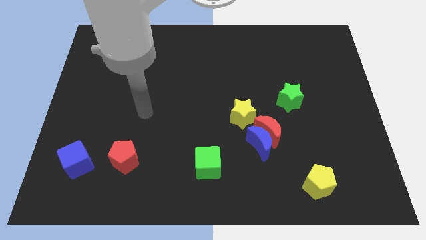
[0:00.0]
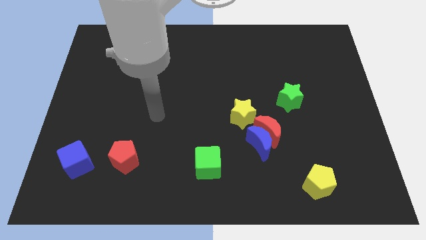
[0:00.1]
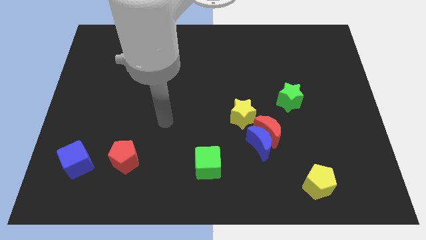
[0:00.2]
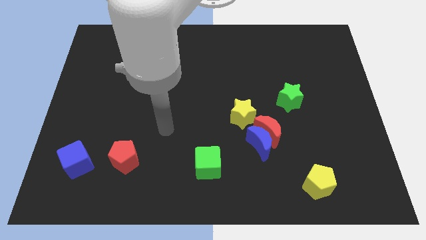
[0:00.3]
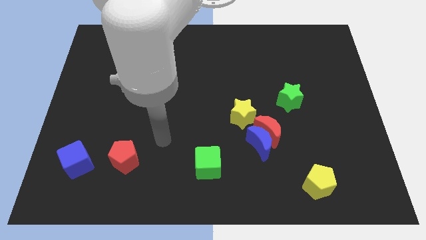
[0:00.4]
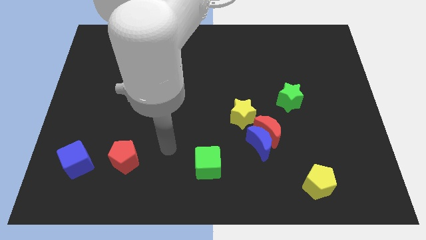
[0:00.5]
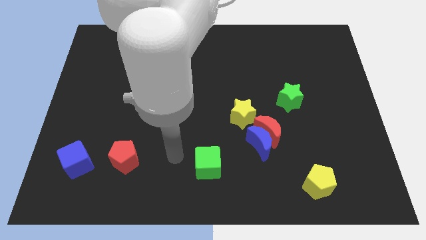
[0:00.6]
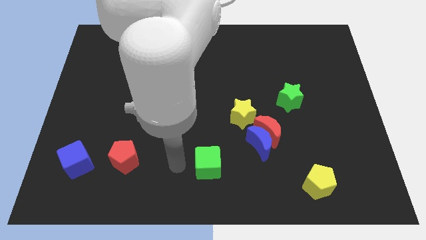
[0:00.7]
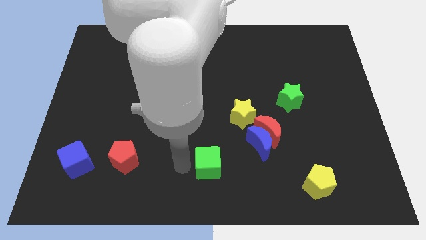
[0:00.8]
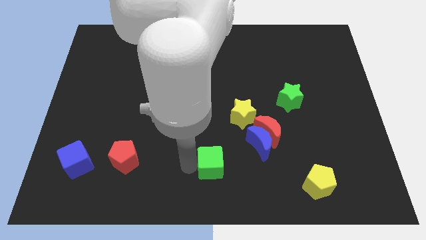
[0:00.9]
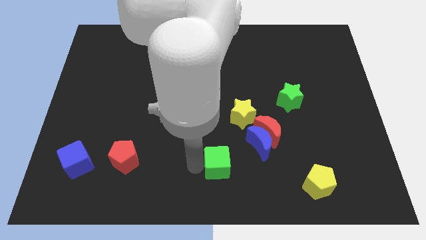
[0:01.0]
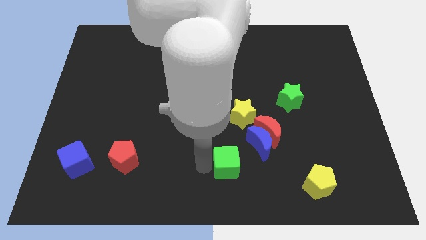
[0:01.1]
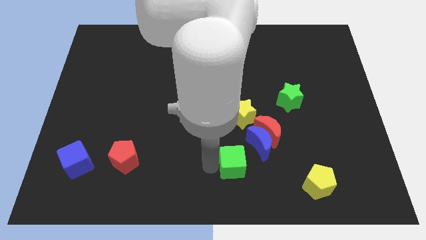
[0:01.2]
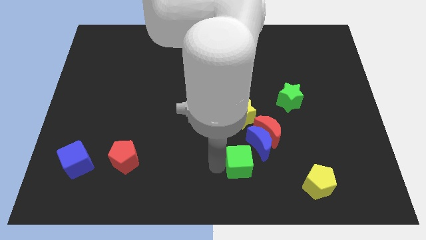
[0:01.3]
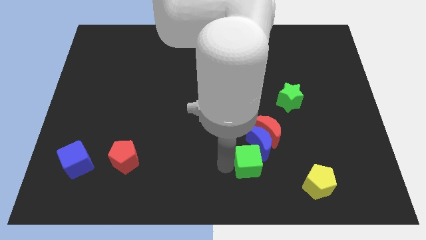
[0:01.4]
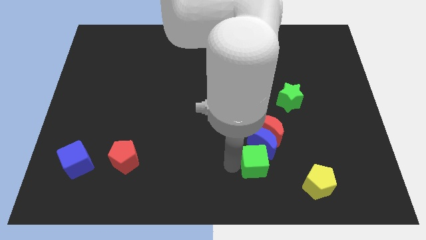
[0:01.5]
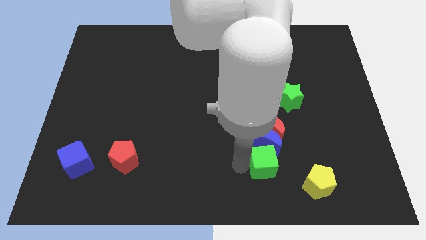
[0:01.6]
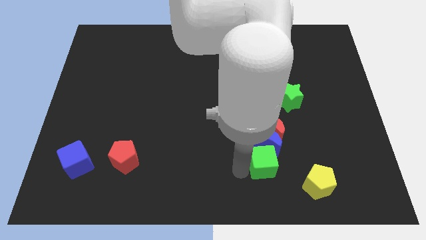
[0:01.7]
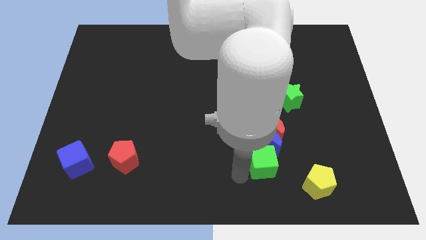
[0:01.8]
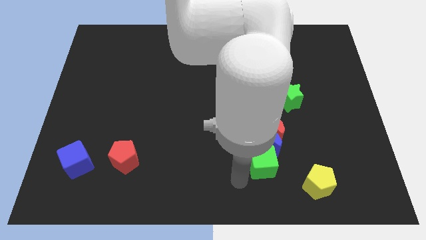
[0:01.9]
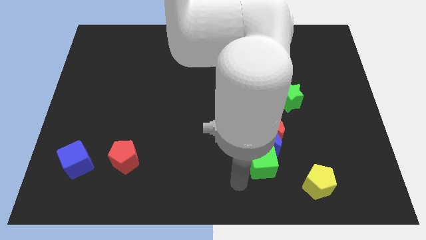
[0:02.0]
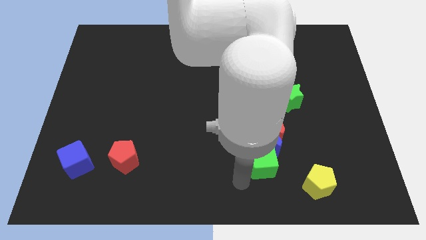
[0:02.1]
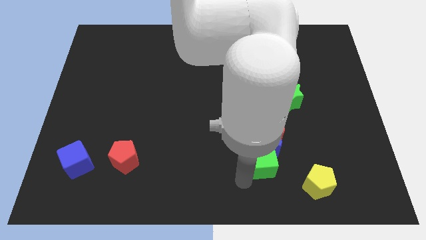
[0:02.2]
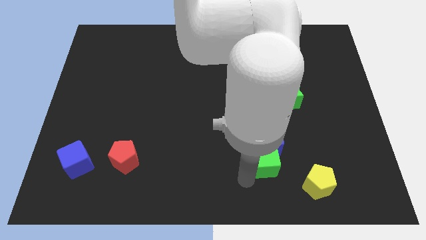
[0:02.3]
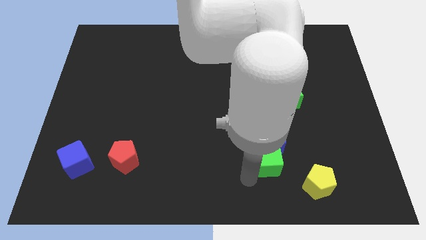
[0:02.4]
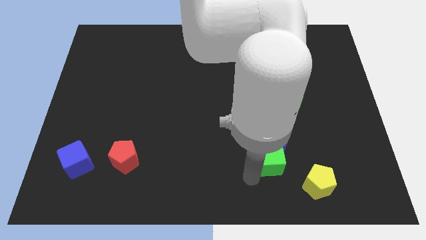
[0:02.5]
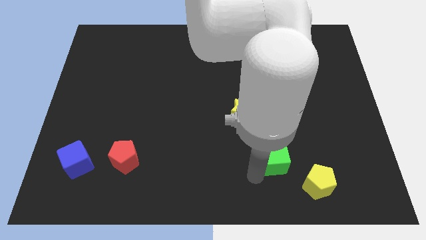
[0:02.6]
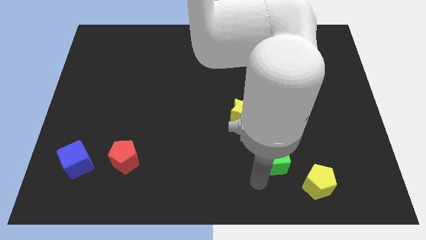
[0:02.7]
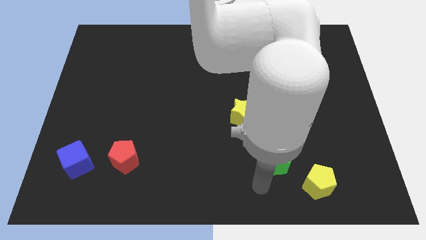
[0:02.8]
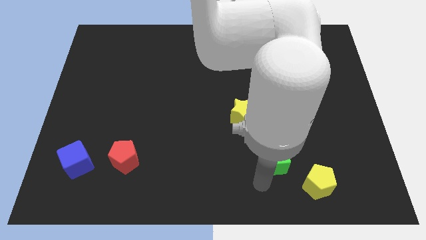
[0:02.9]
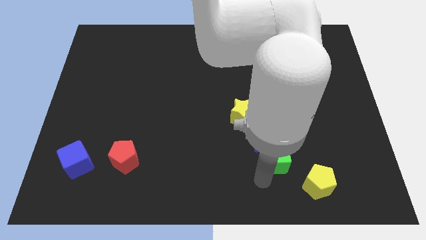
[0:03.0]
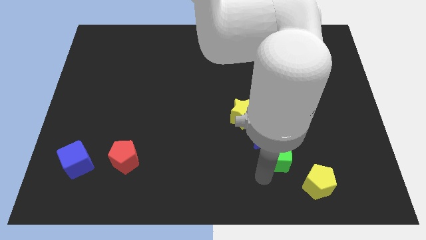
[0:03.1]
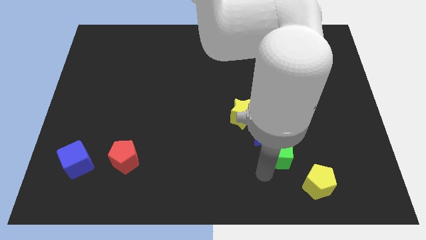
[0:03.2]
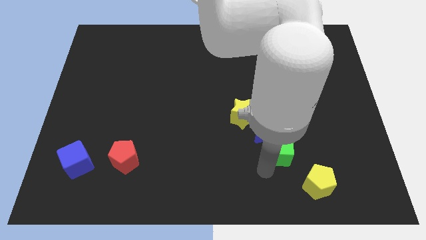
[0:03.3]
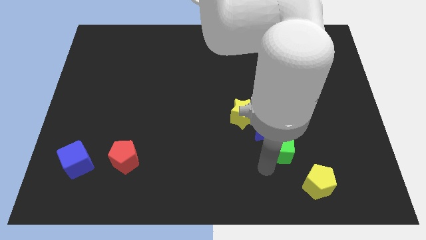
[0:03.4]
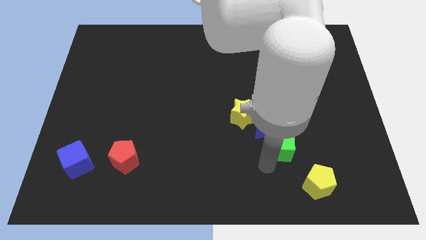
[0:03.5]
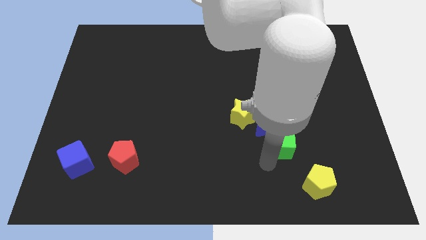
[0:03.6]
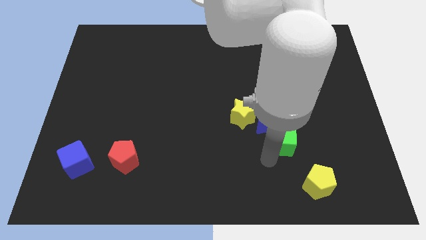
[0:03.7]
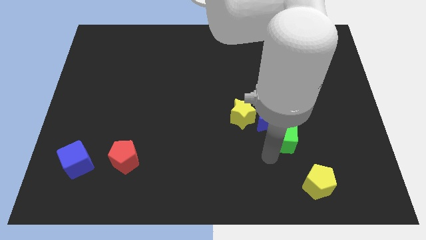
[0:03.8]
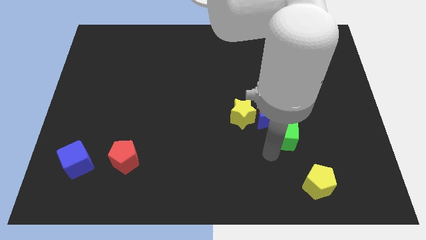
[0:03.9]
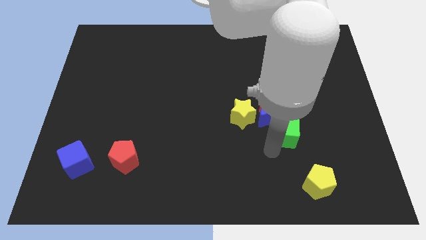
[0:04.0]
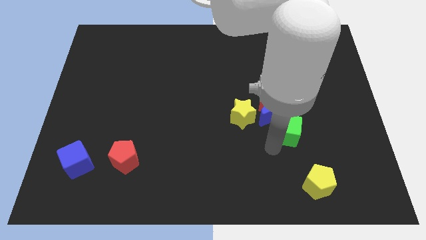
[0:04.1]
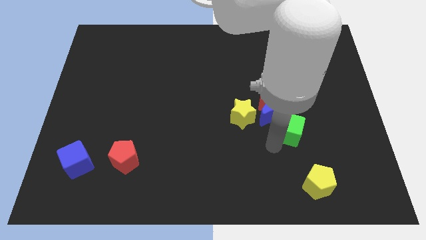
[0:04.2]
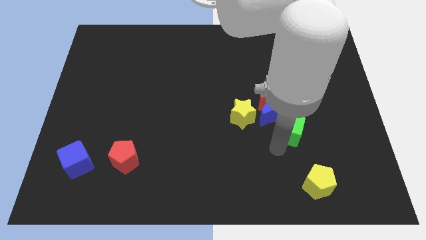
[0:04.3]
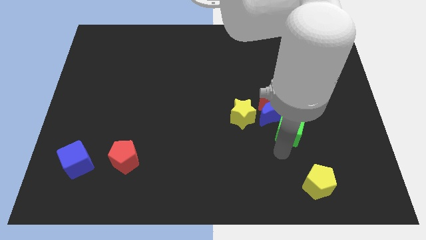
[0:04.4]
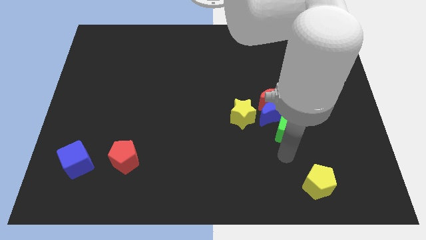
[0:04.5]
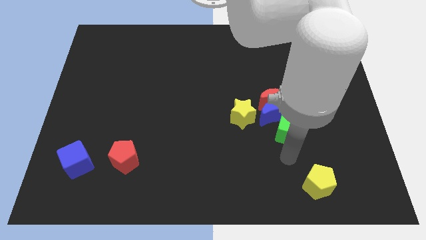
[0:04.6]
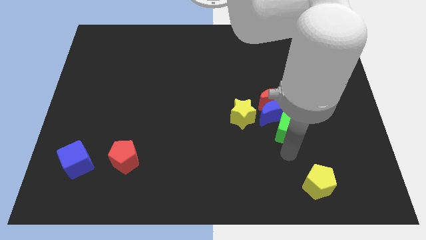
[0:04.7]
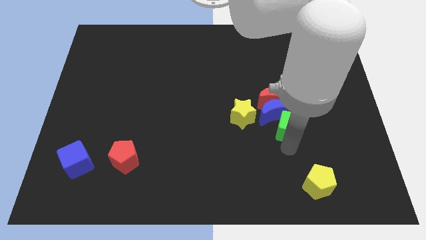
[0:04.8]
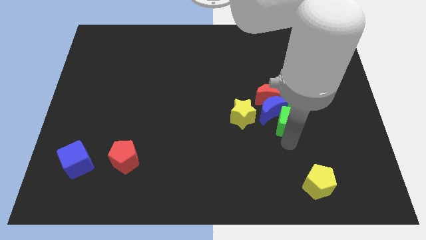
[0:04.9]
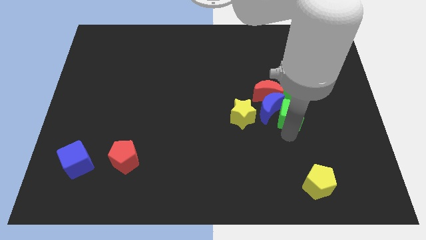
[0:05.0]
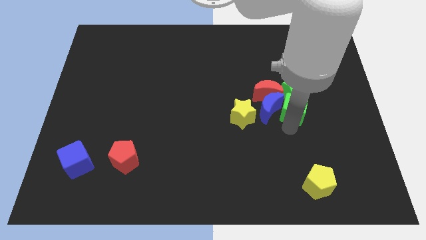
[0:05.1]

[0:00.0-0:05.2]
push the green cube towards the green star

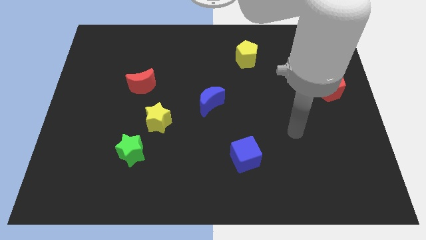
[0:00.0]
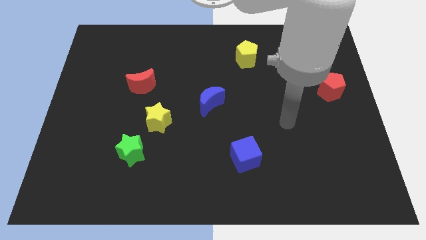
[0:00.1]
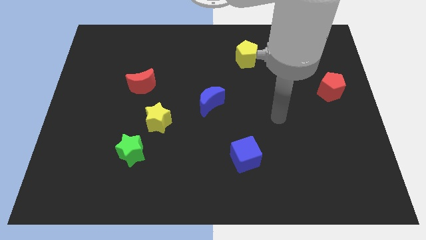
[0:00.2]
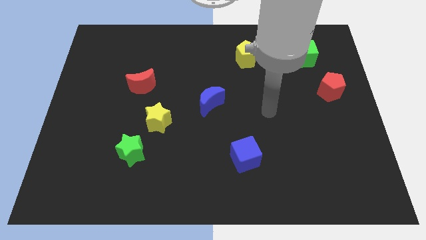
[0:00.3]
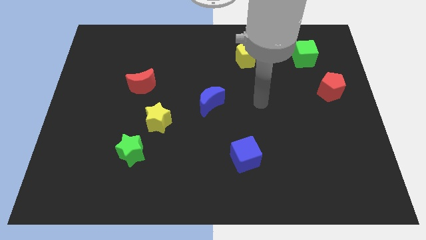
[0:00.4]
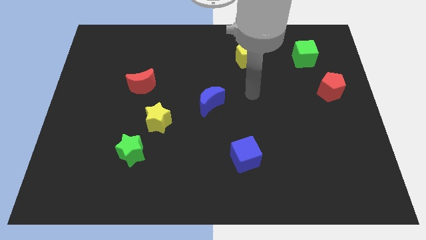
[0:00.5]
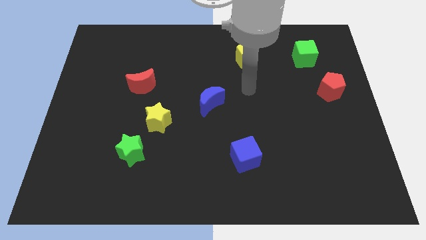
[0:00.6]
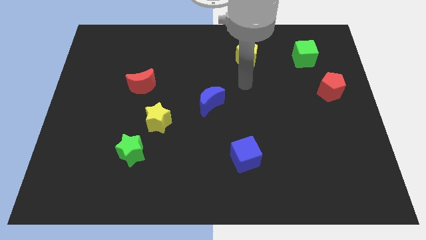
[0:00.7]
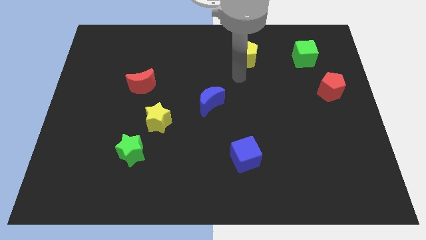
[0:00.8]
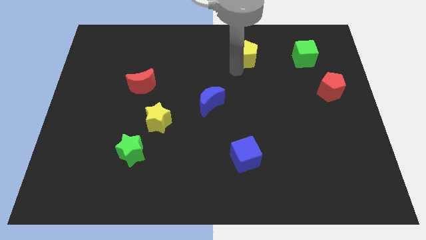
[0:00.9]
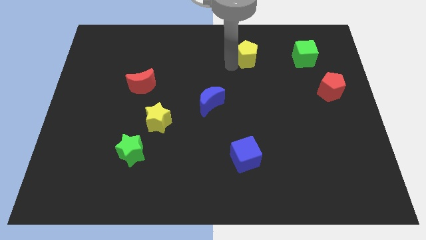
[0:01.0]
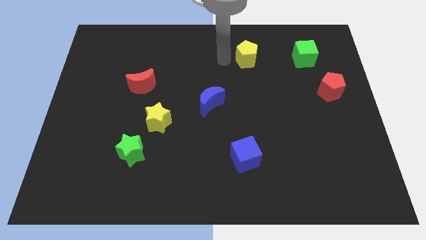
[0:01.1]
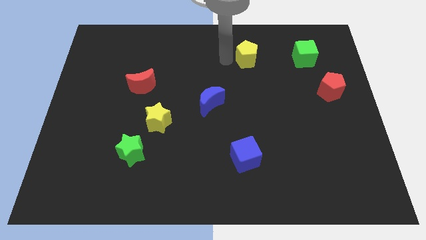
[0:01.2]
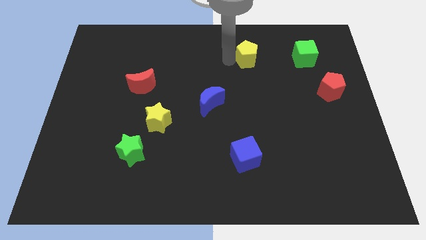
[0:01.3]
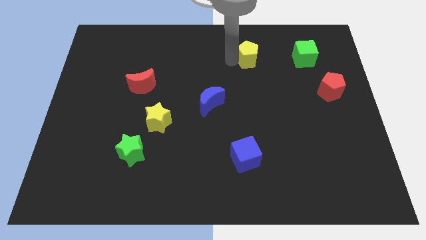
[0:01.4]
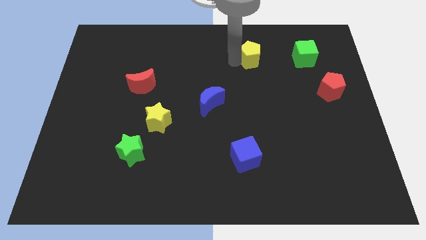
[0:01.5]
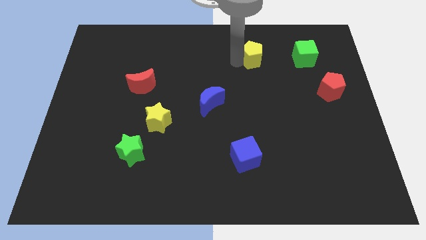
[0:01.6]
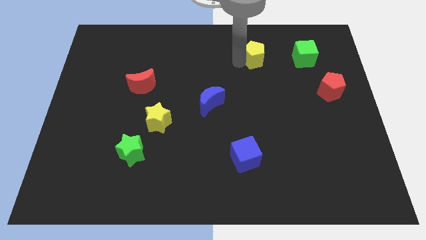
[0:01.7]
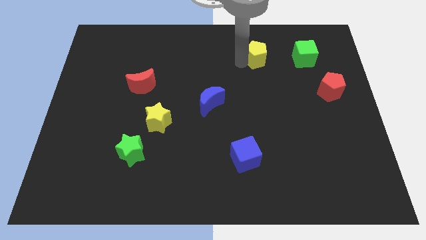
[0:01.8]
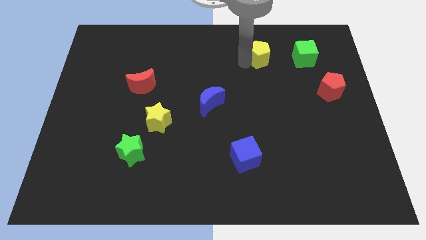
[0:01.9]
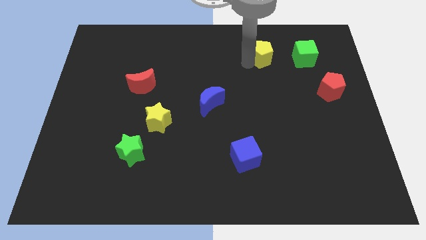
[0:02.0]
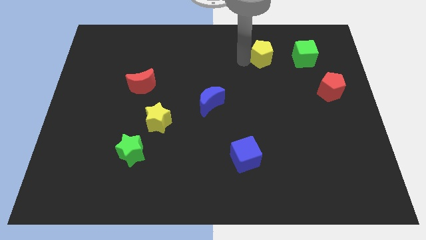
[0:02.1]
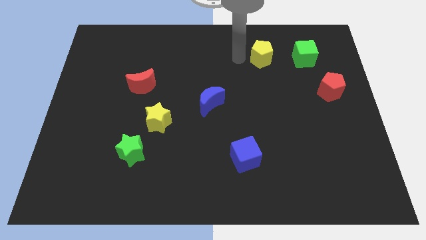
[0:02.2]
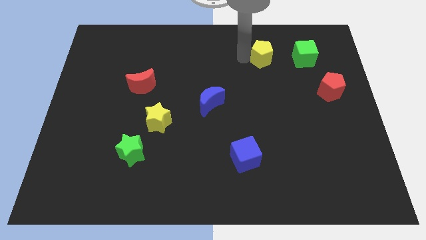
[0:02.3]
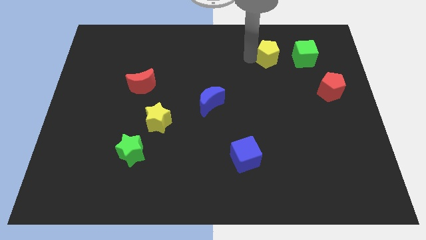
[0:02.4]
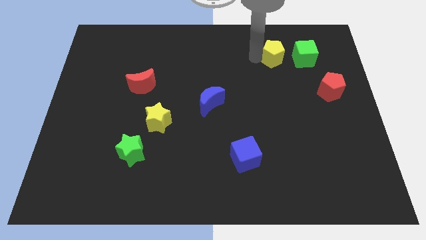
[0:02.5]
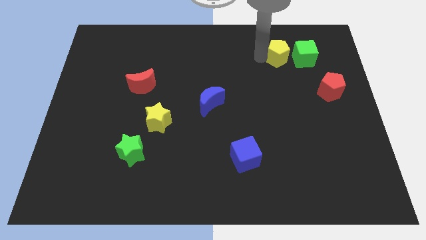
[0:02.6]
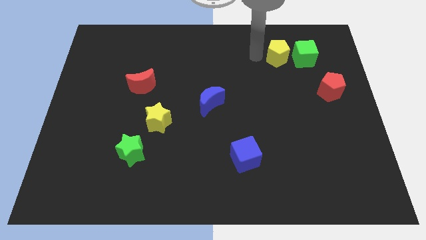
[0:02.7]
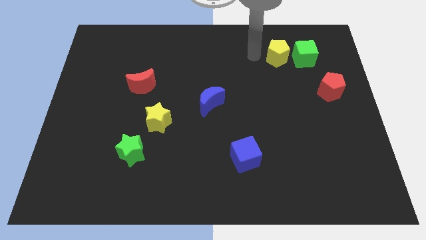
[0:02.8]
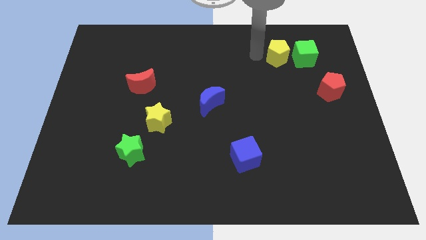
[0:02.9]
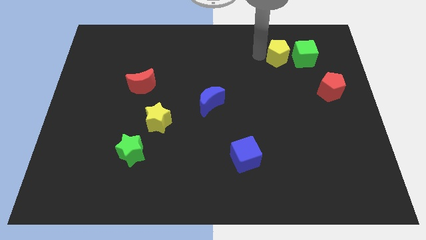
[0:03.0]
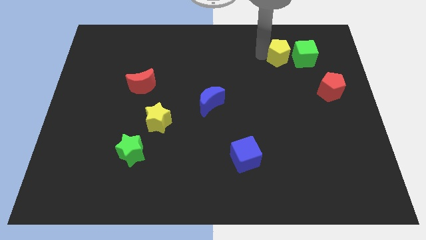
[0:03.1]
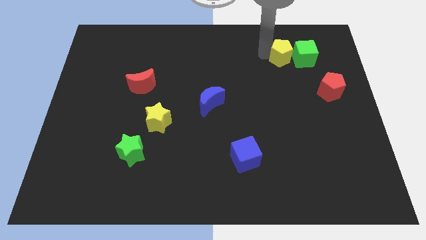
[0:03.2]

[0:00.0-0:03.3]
put the yellow pentagon close to the green cube
